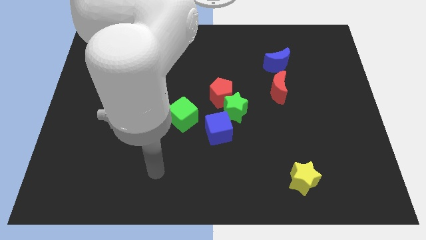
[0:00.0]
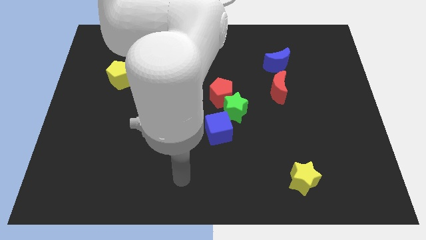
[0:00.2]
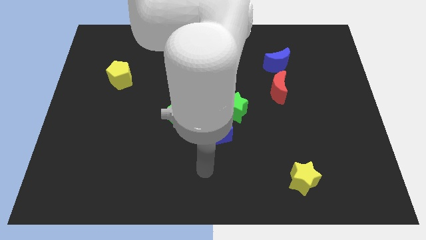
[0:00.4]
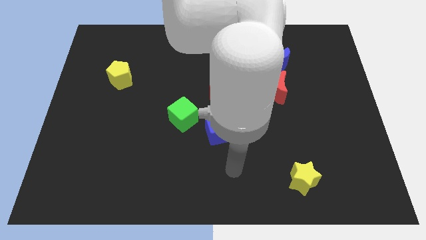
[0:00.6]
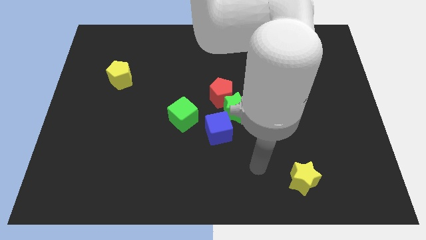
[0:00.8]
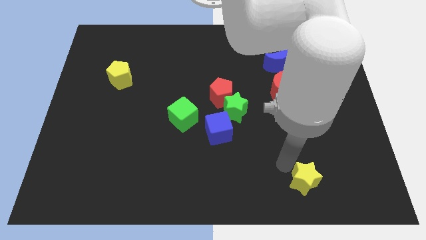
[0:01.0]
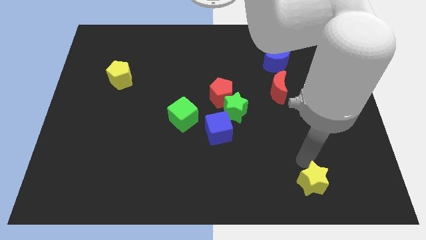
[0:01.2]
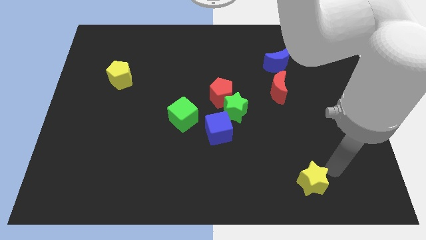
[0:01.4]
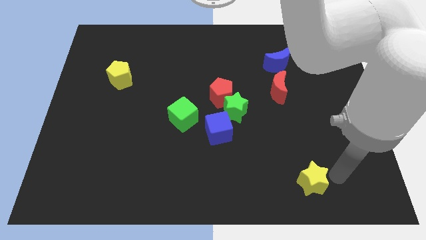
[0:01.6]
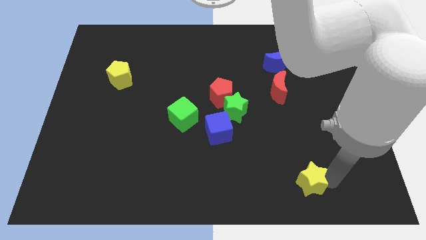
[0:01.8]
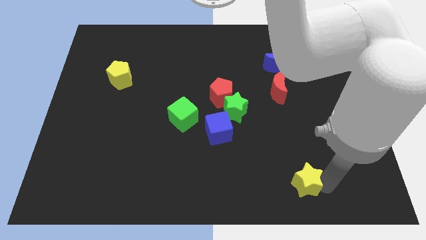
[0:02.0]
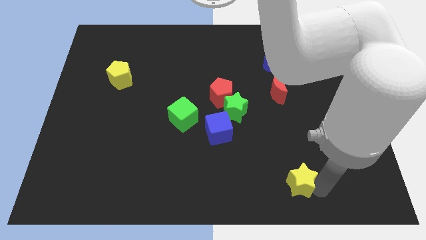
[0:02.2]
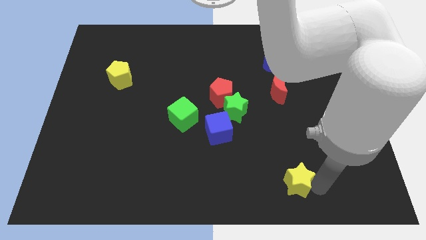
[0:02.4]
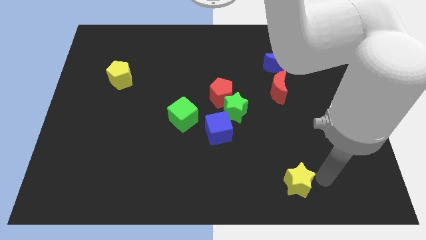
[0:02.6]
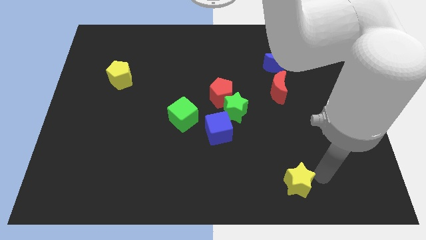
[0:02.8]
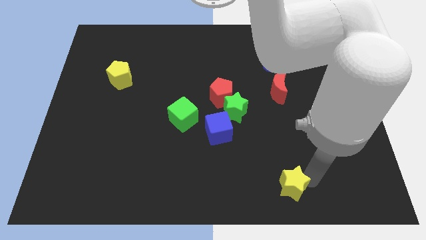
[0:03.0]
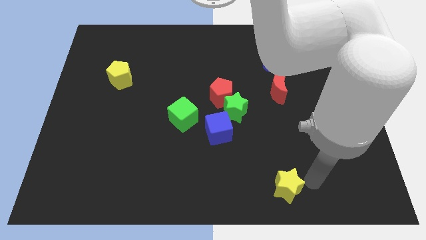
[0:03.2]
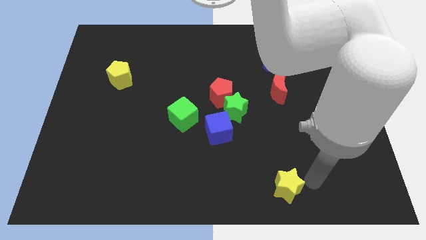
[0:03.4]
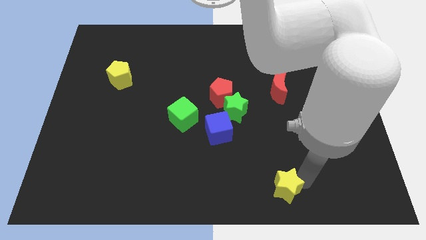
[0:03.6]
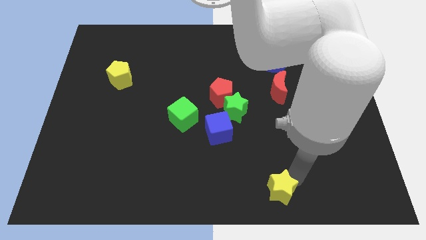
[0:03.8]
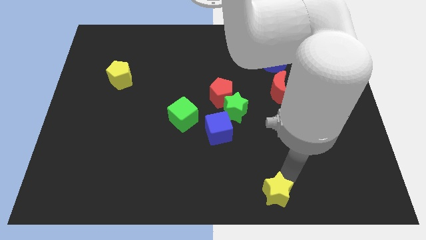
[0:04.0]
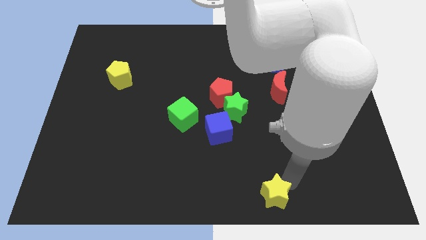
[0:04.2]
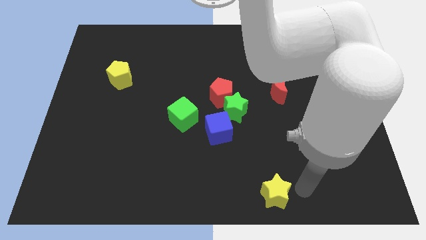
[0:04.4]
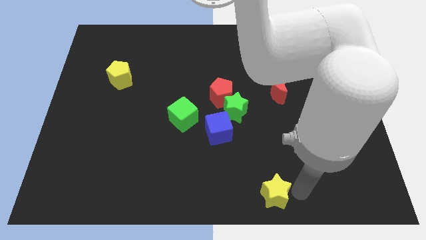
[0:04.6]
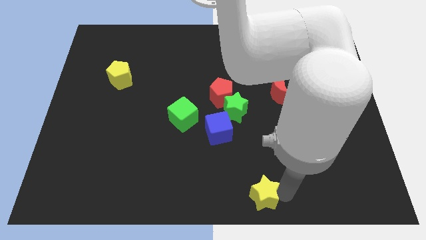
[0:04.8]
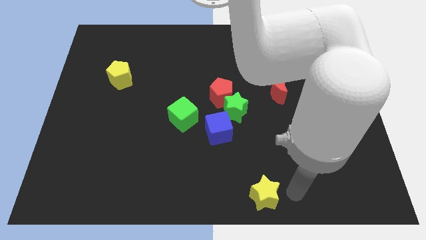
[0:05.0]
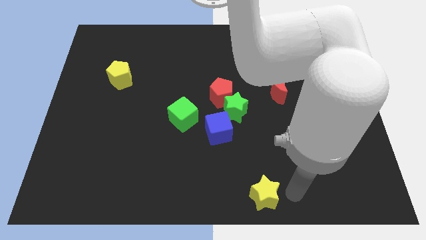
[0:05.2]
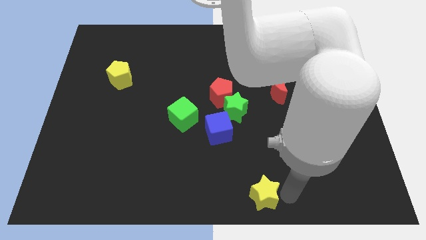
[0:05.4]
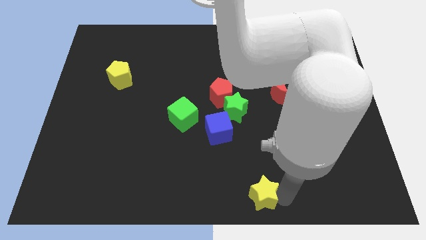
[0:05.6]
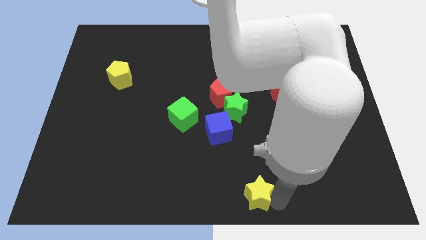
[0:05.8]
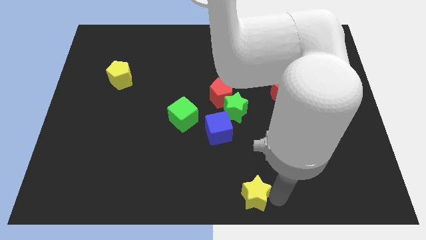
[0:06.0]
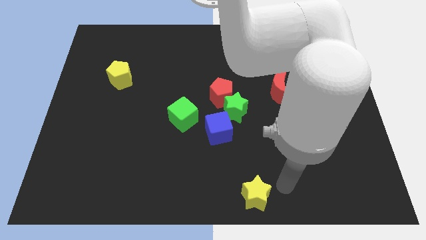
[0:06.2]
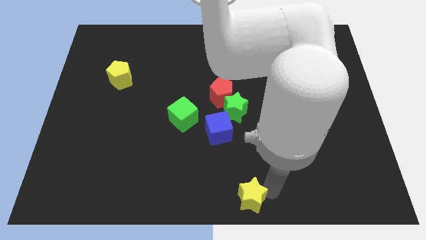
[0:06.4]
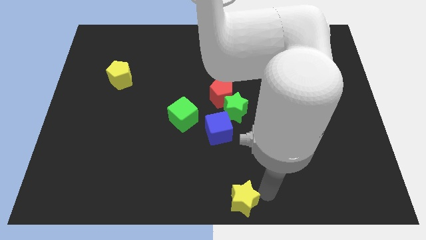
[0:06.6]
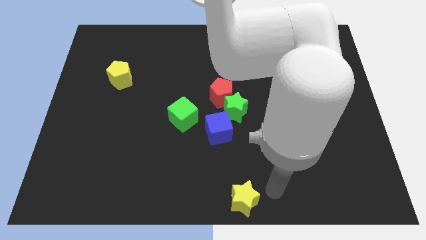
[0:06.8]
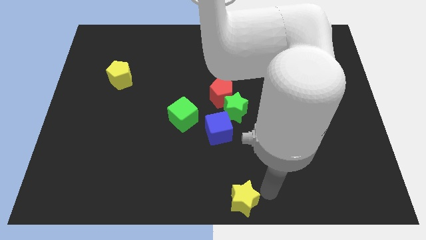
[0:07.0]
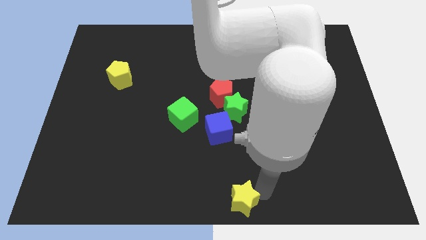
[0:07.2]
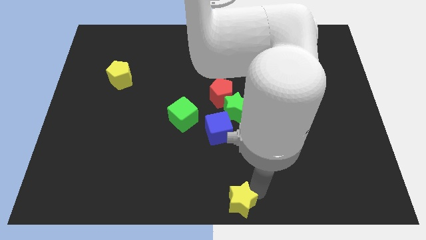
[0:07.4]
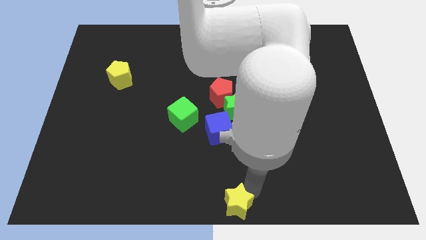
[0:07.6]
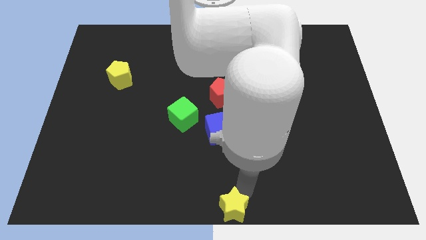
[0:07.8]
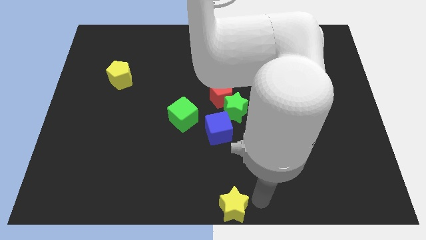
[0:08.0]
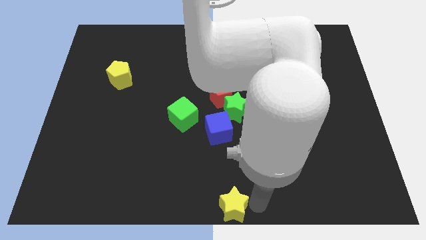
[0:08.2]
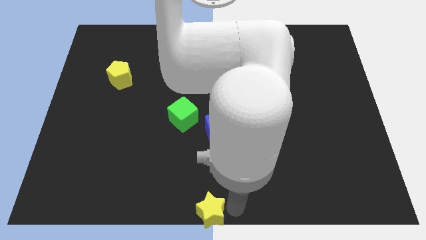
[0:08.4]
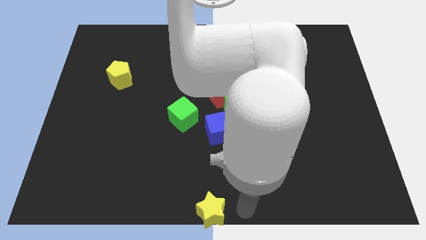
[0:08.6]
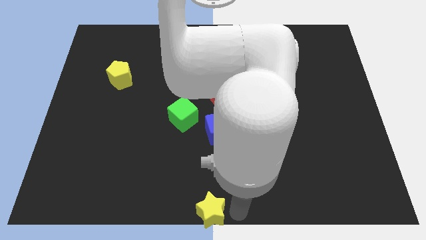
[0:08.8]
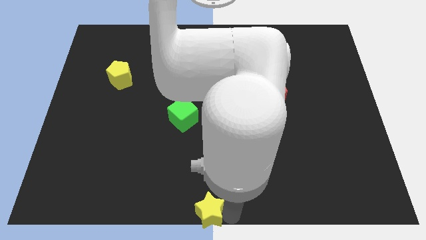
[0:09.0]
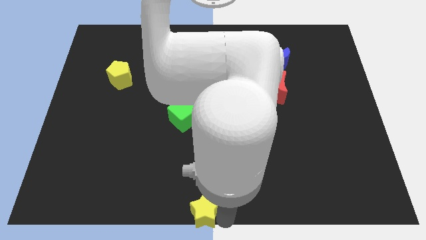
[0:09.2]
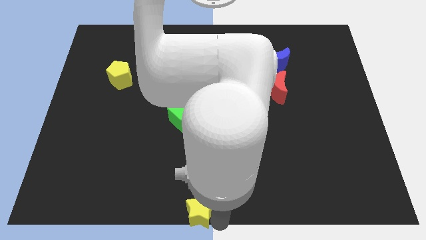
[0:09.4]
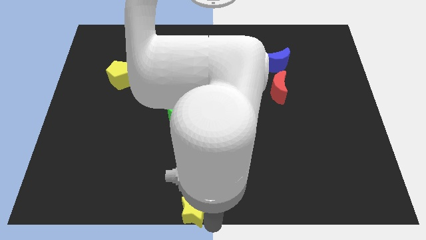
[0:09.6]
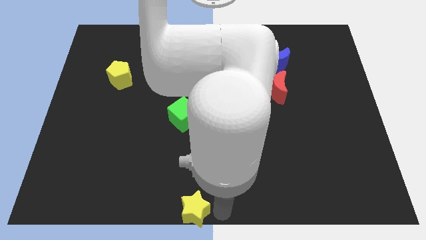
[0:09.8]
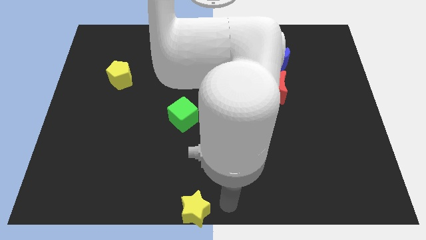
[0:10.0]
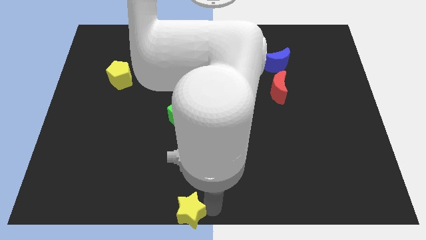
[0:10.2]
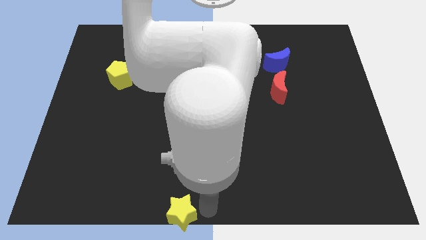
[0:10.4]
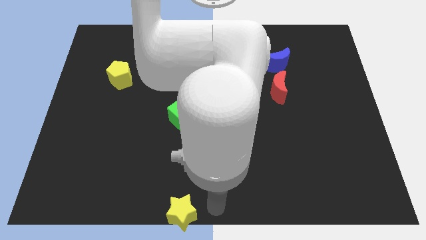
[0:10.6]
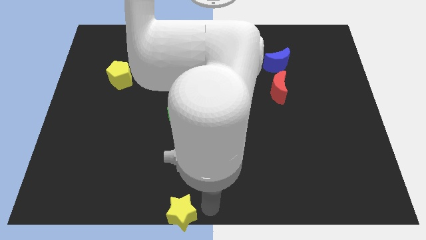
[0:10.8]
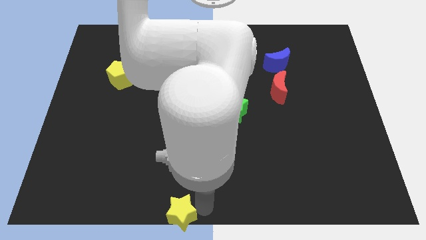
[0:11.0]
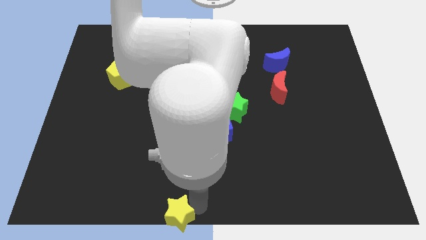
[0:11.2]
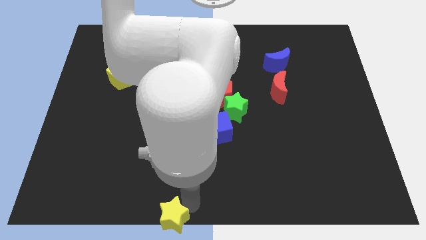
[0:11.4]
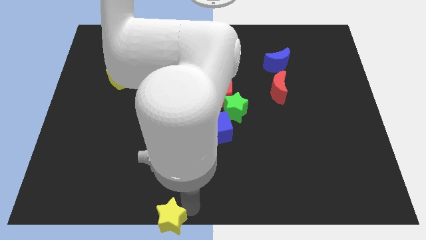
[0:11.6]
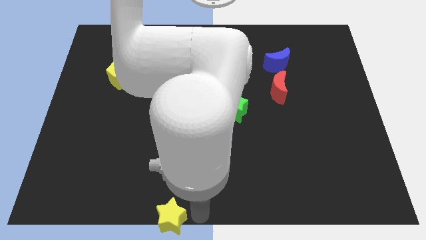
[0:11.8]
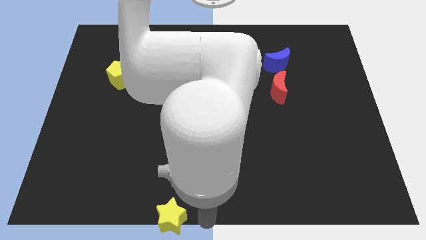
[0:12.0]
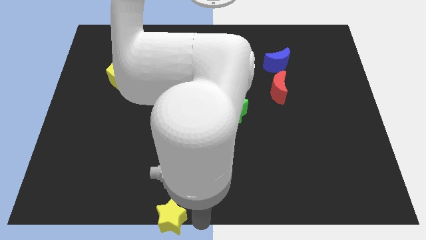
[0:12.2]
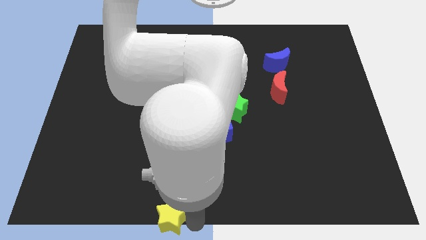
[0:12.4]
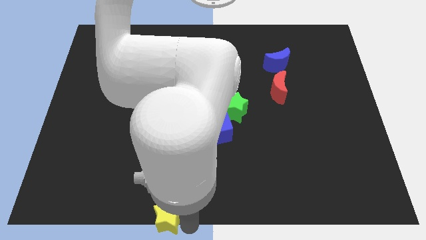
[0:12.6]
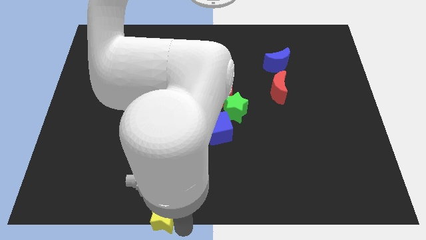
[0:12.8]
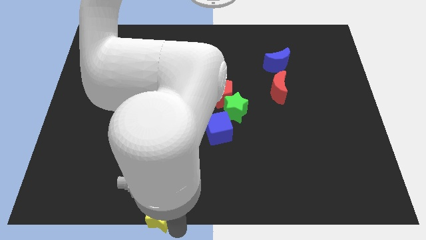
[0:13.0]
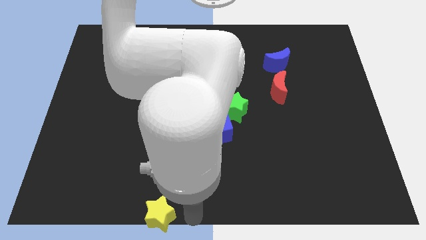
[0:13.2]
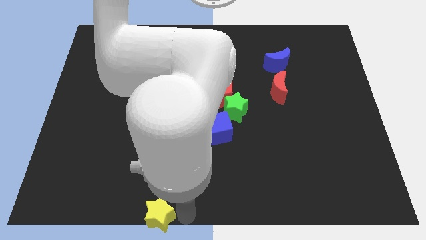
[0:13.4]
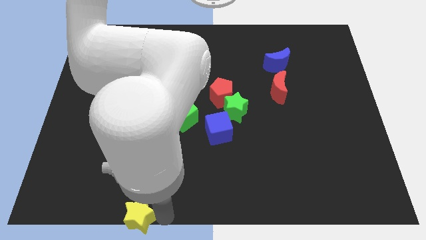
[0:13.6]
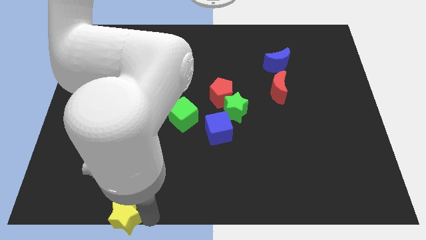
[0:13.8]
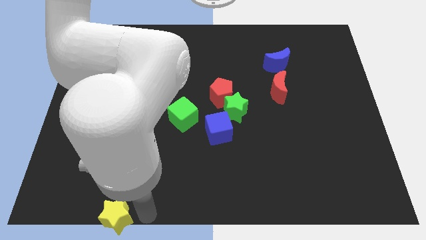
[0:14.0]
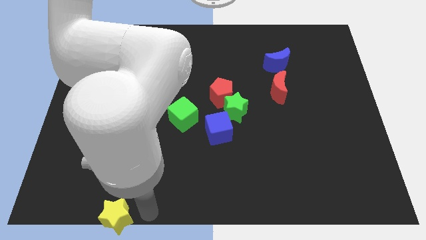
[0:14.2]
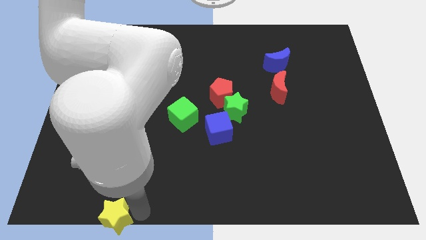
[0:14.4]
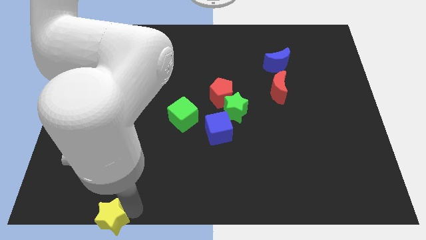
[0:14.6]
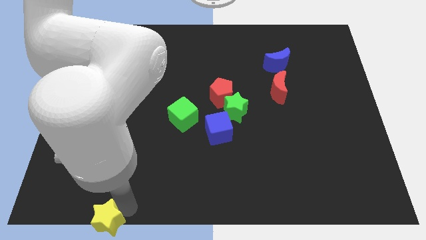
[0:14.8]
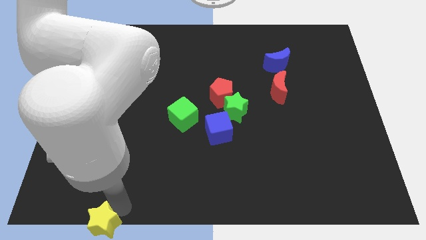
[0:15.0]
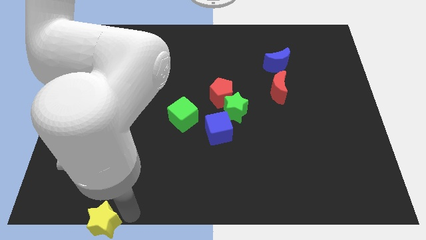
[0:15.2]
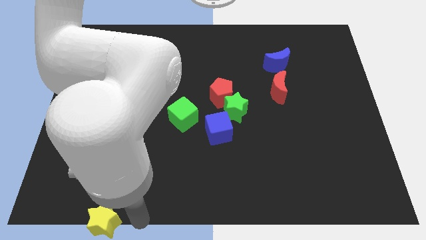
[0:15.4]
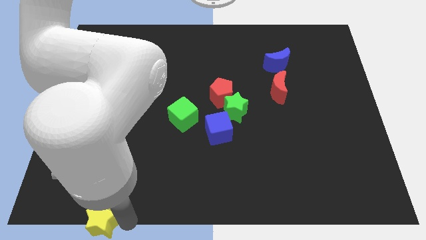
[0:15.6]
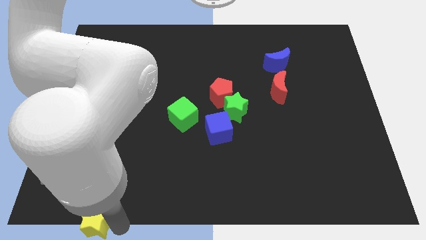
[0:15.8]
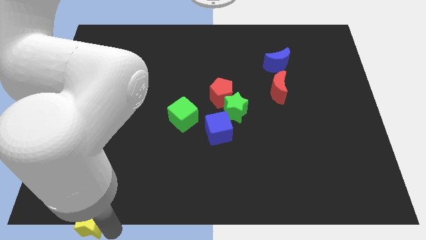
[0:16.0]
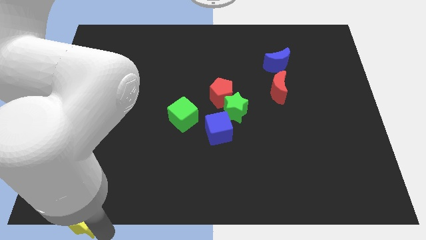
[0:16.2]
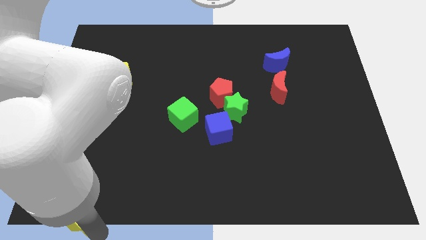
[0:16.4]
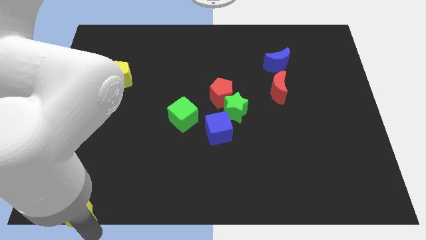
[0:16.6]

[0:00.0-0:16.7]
push the yellow star to the bottom left of the board
